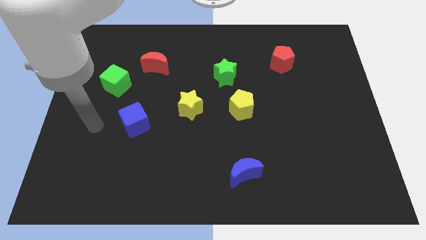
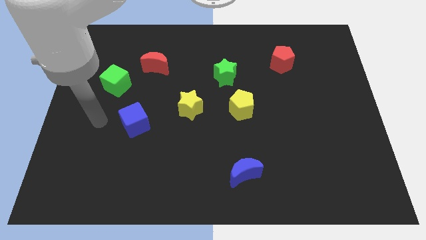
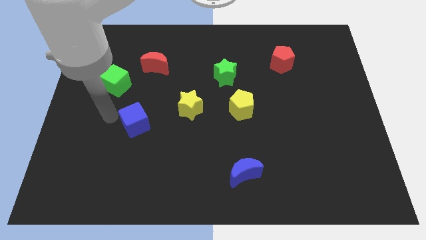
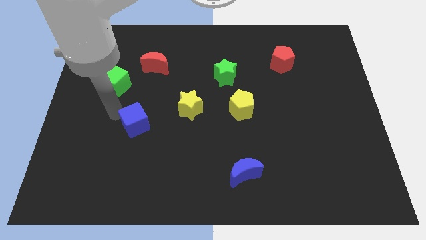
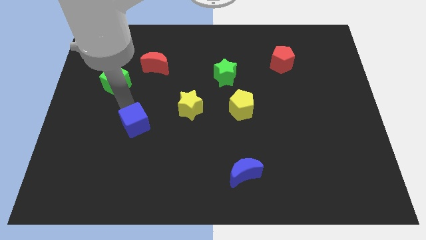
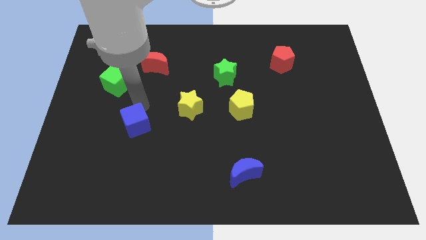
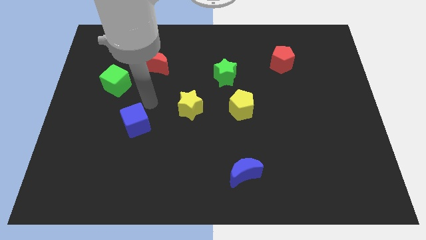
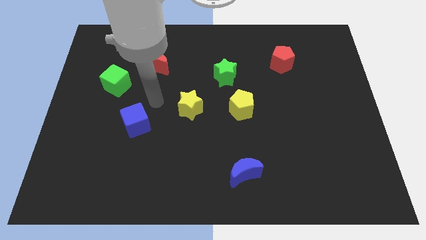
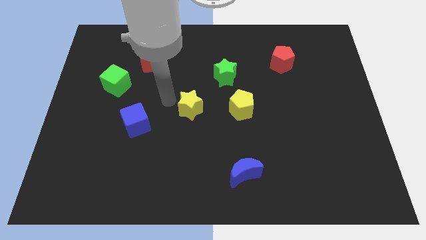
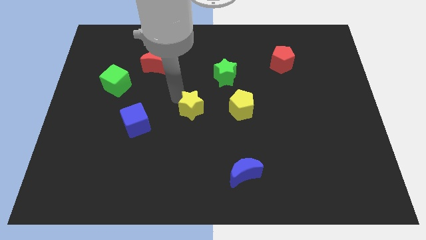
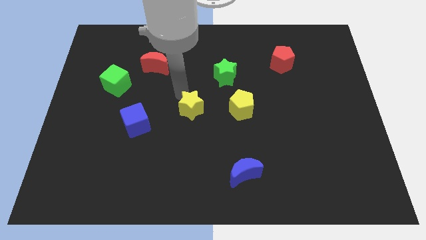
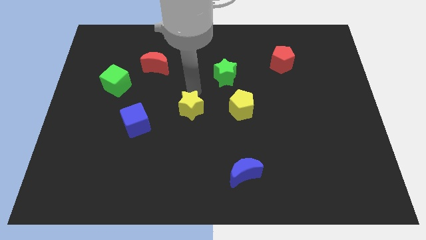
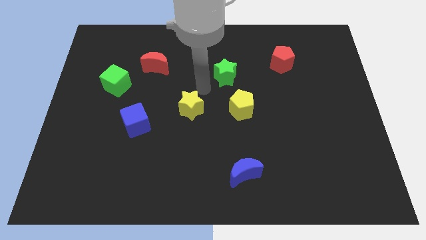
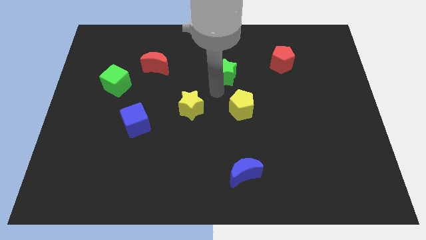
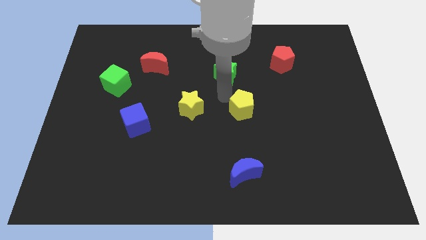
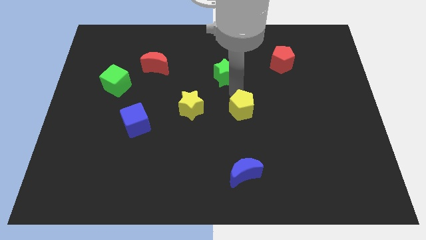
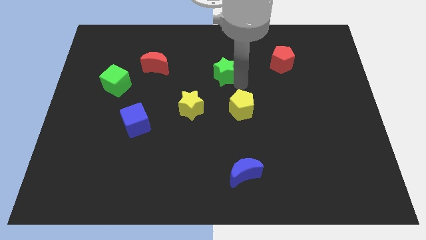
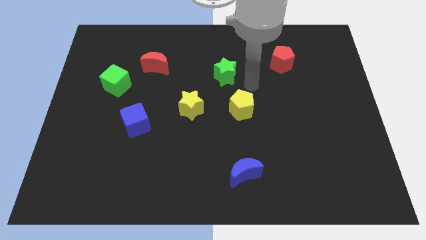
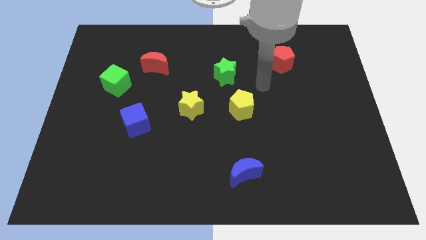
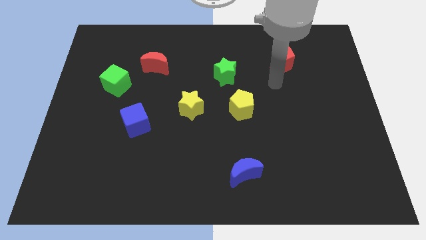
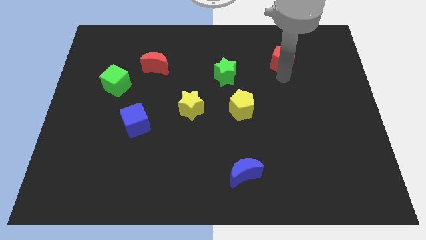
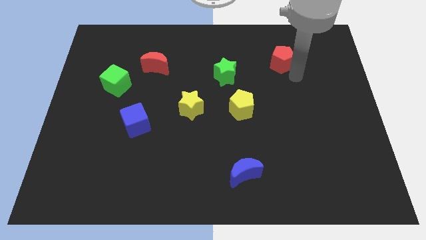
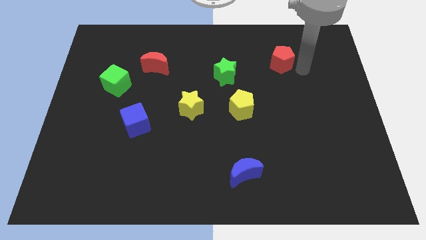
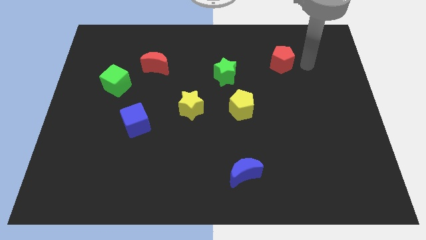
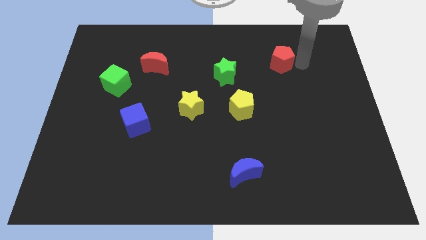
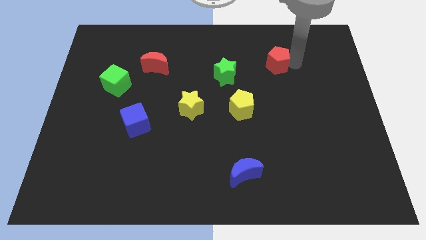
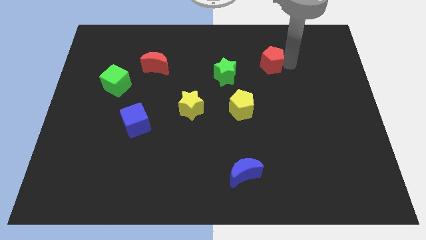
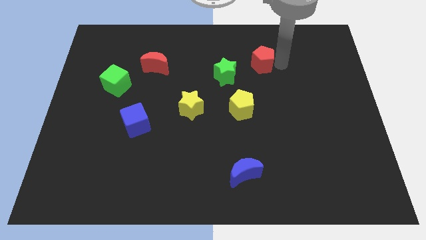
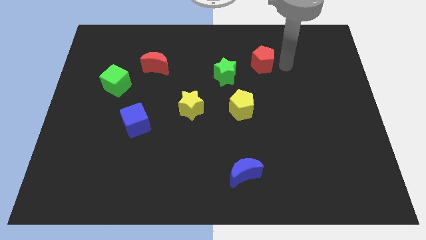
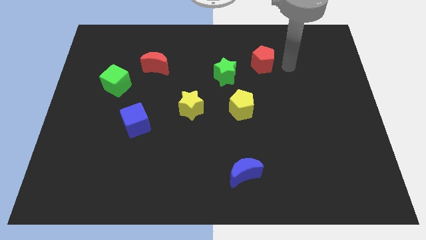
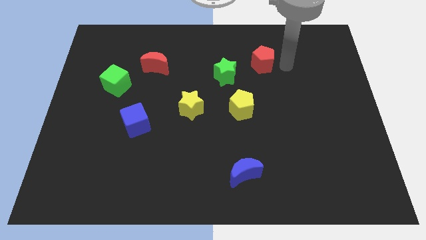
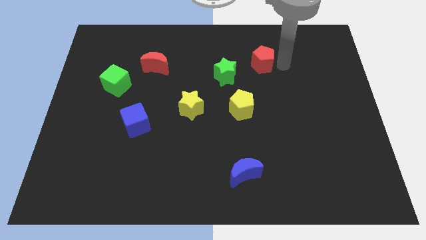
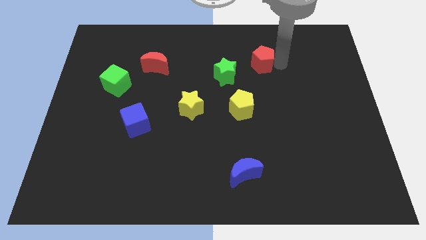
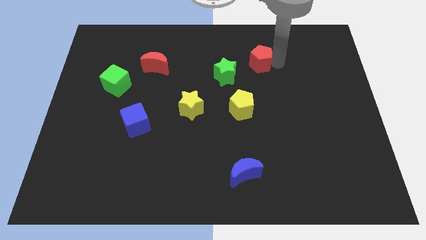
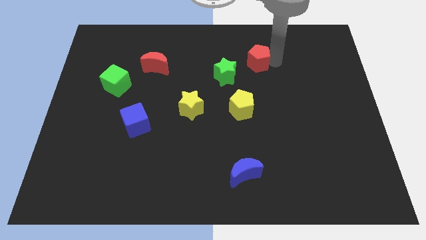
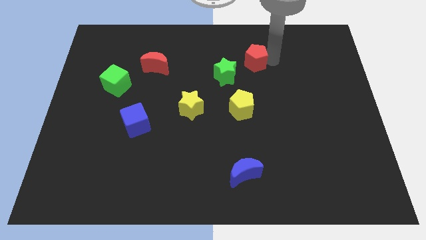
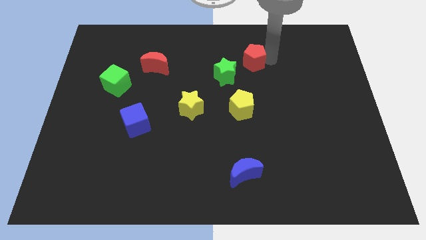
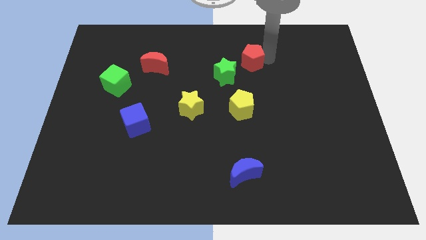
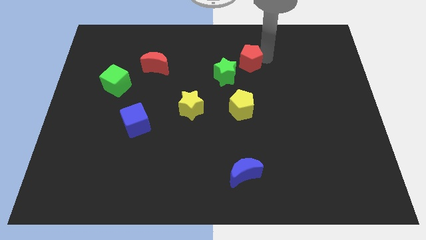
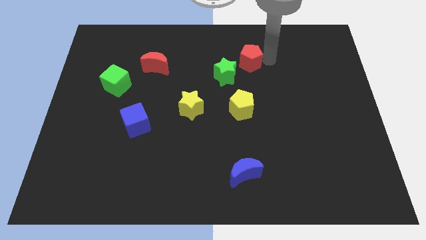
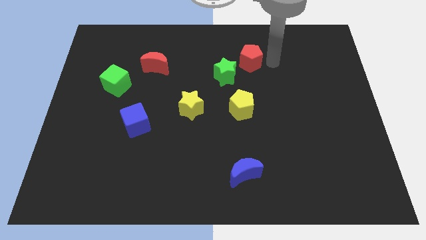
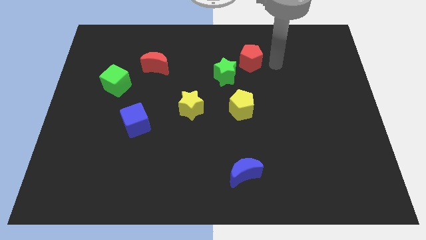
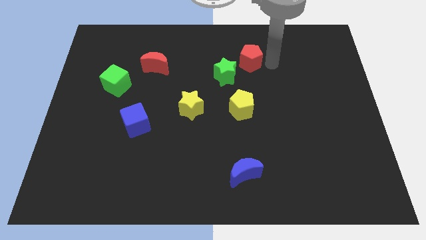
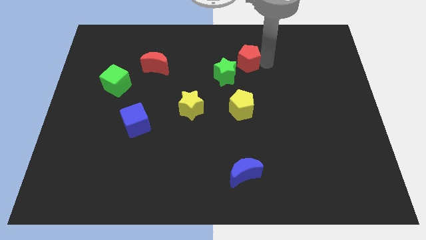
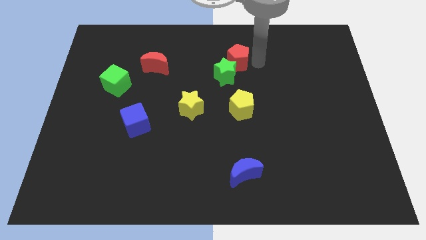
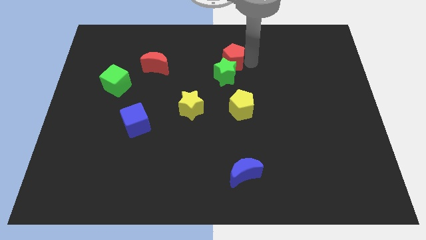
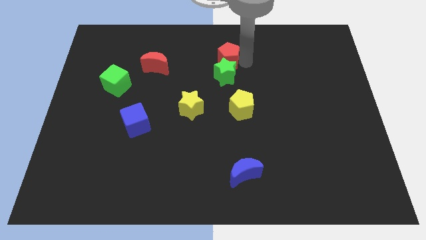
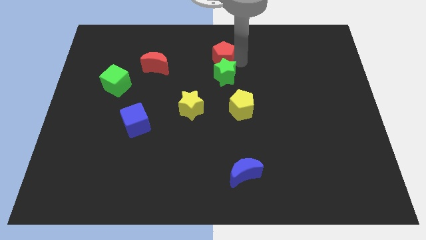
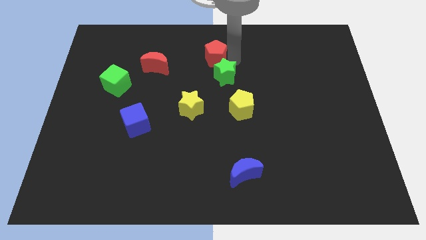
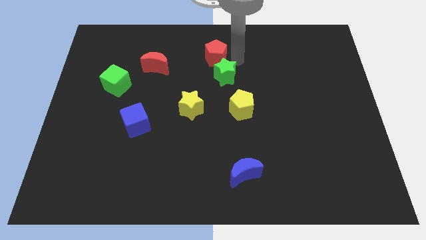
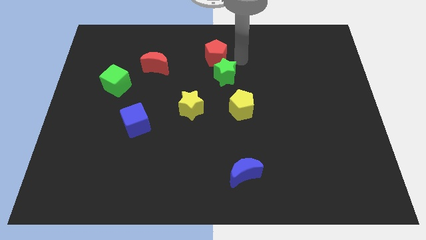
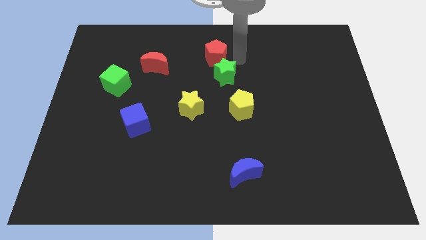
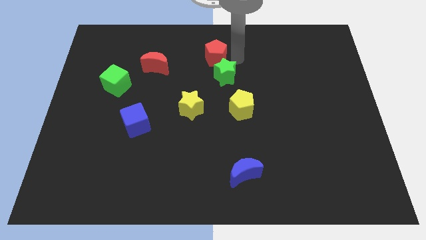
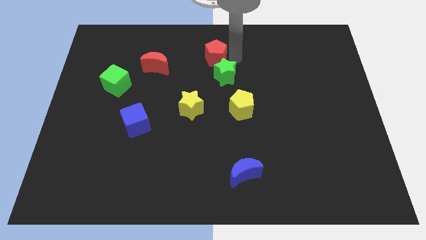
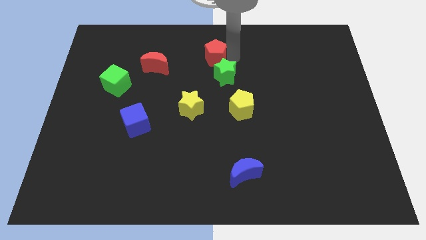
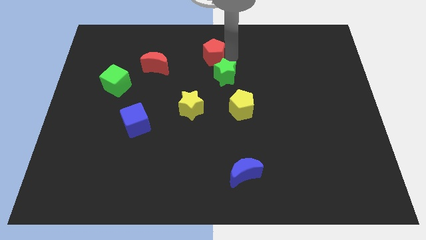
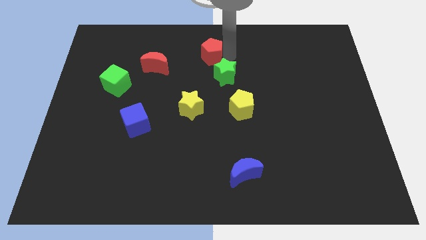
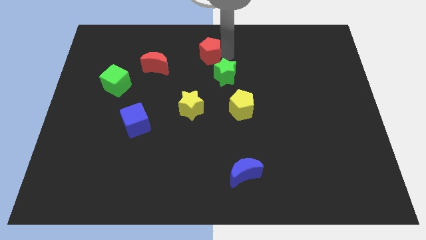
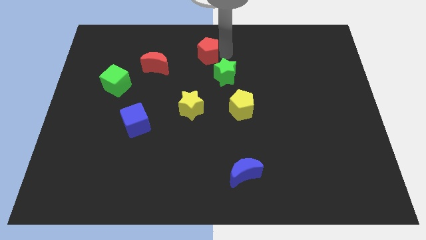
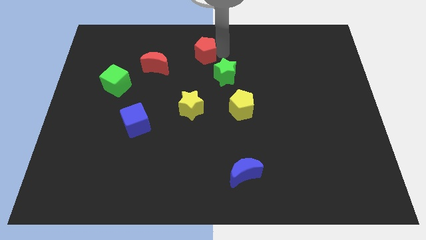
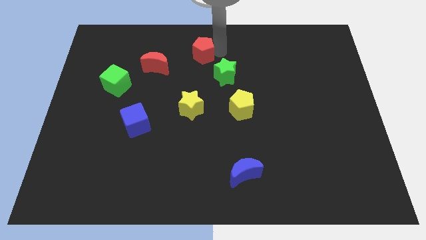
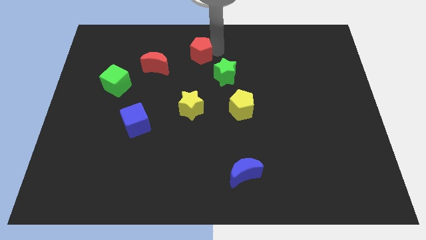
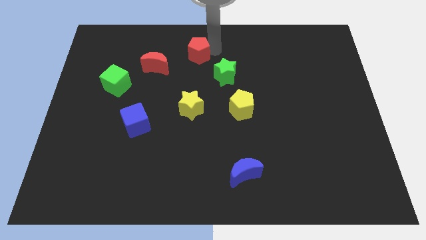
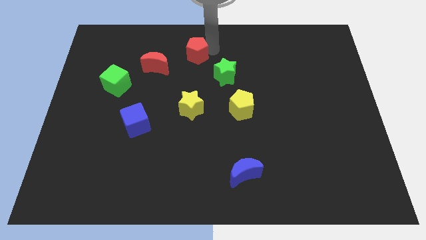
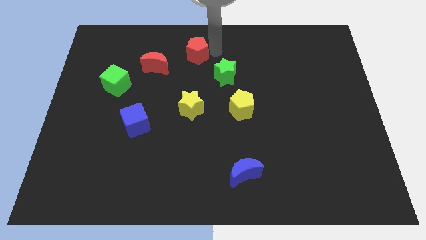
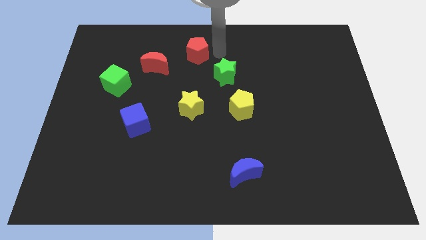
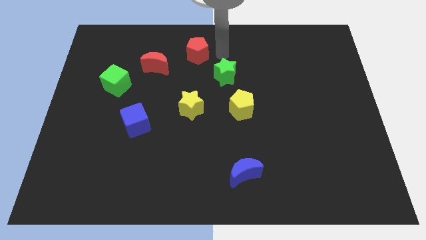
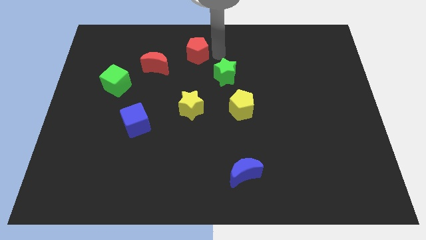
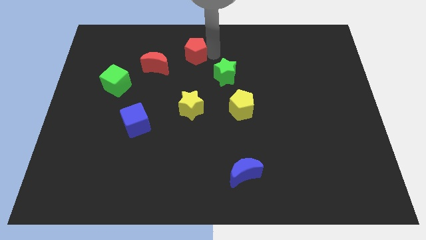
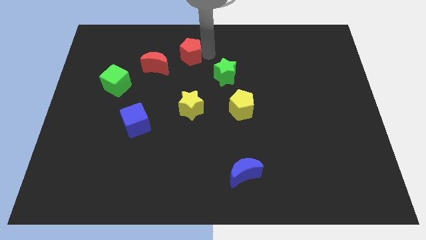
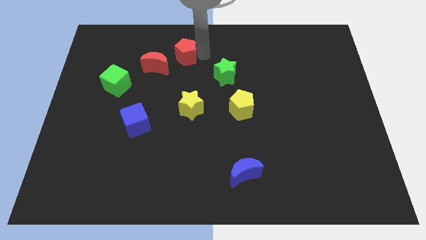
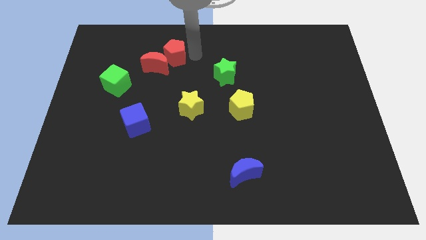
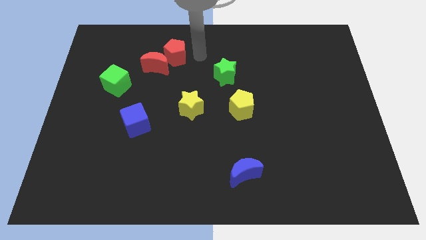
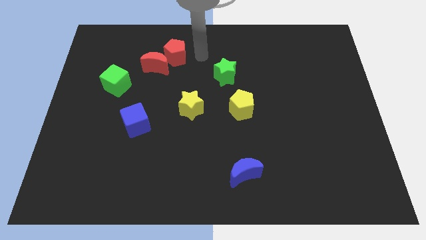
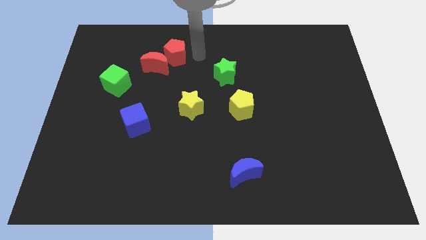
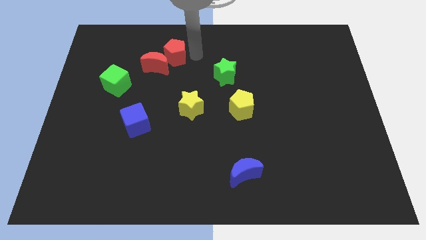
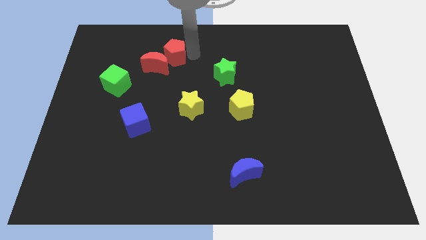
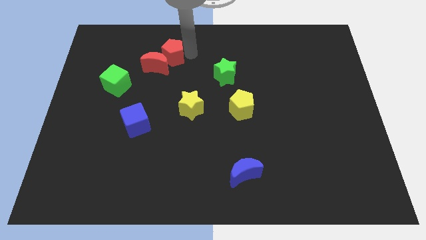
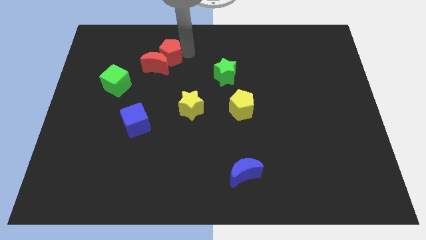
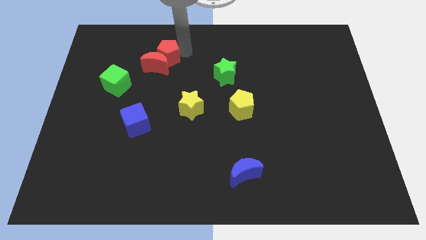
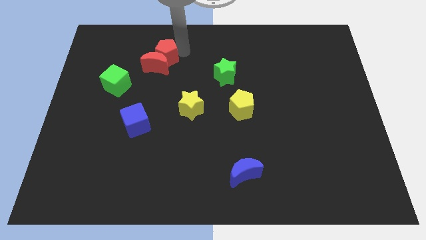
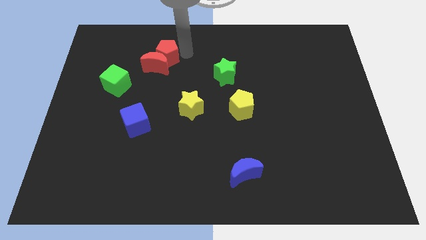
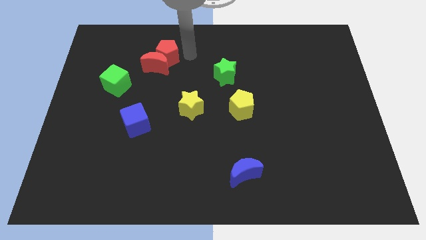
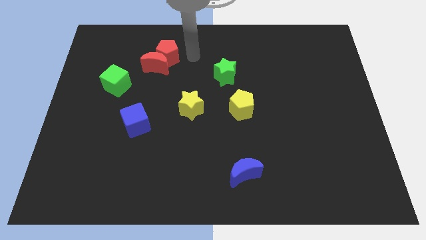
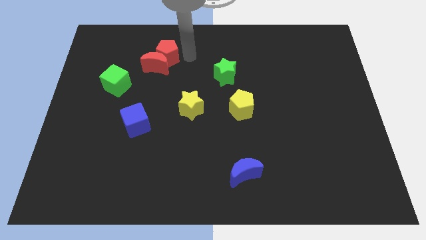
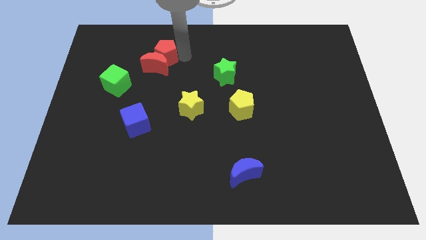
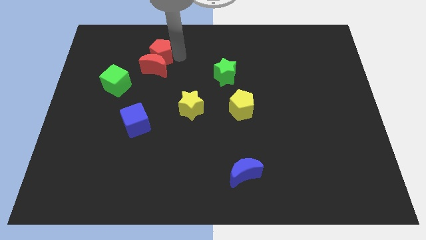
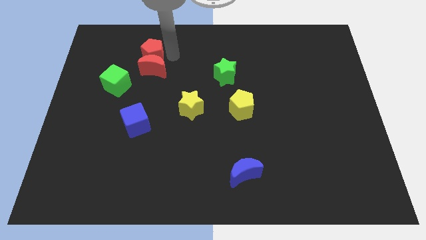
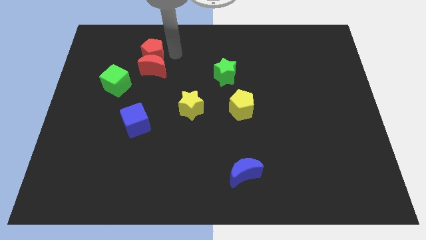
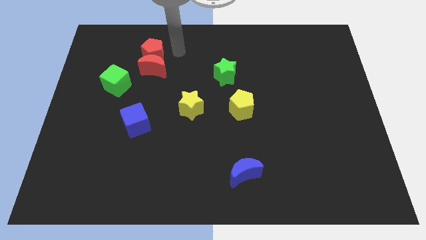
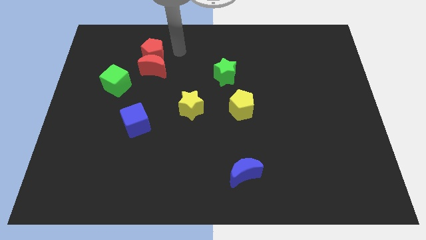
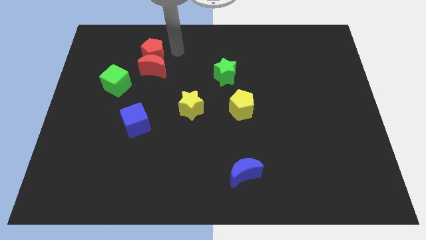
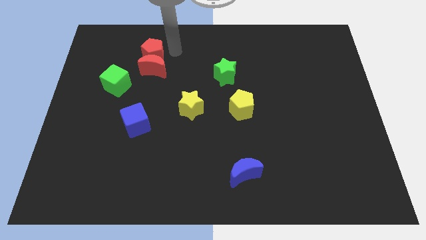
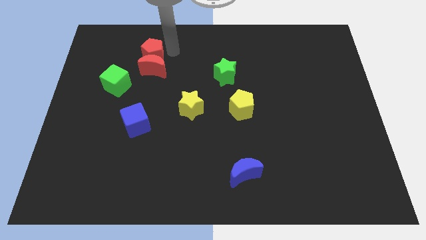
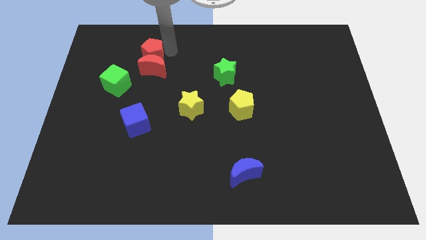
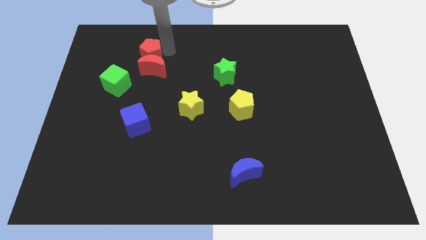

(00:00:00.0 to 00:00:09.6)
put the red pentagon to the top right of the green cube
